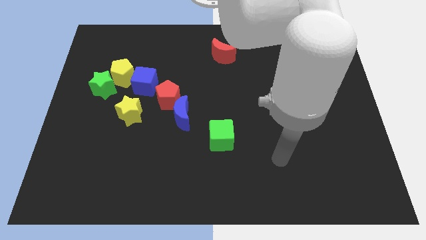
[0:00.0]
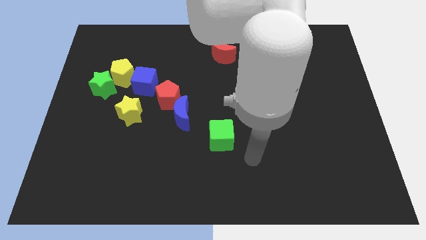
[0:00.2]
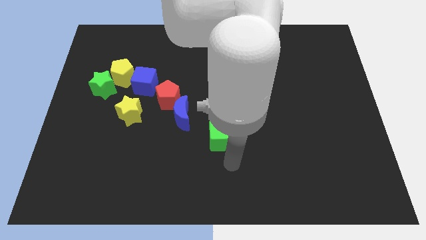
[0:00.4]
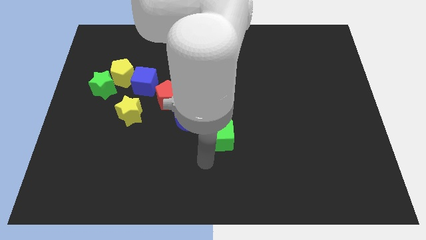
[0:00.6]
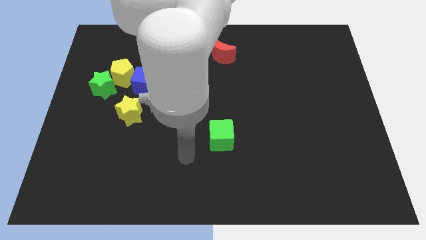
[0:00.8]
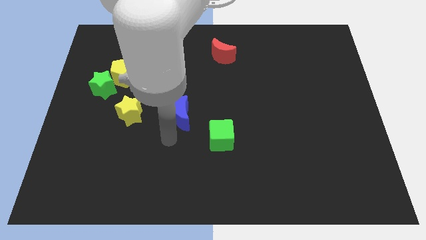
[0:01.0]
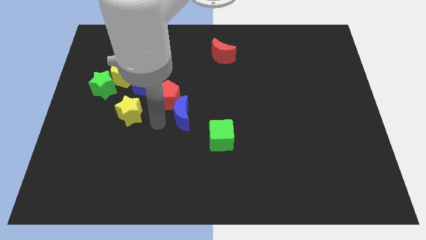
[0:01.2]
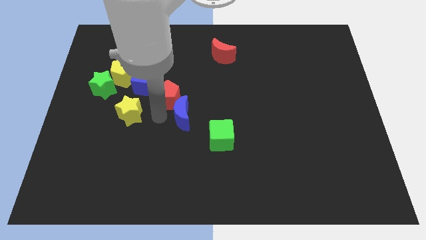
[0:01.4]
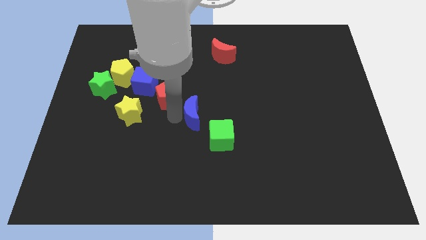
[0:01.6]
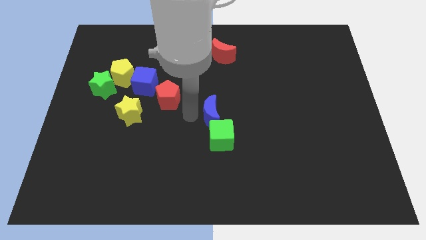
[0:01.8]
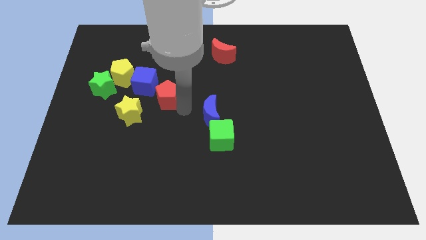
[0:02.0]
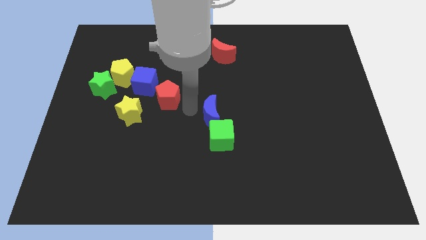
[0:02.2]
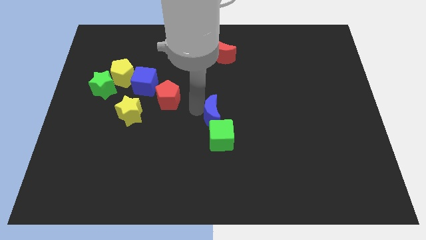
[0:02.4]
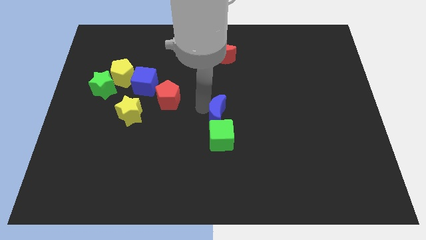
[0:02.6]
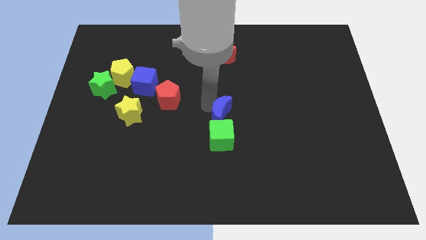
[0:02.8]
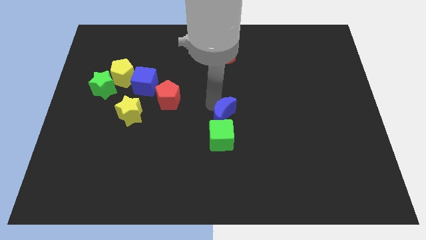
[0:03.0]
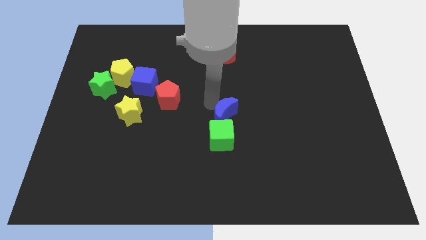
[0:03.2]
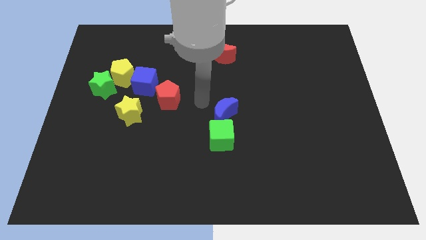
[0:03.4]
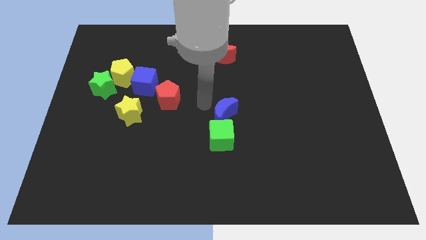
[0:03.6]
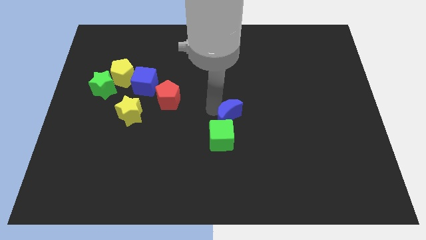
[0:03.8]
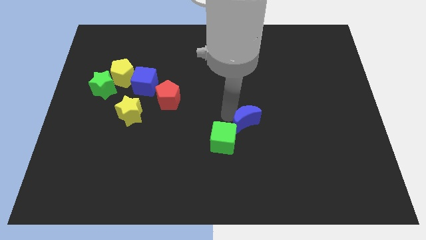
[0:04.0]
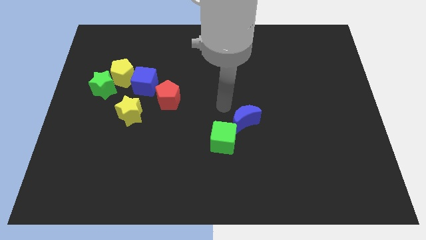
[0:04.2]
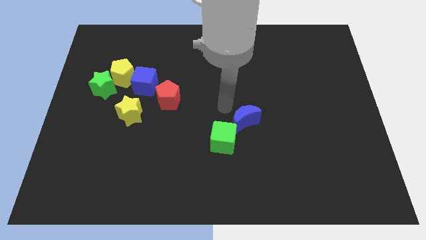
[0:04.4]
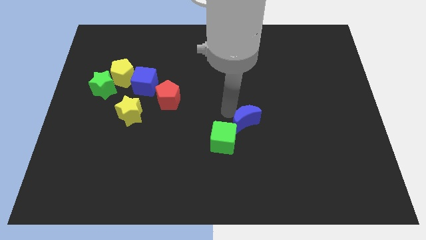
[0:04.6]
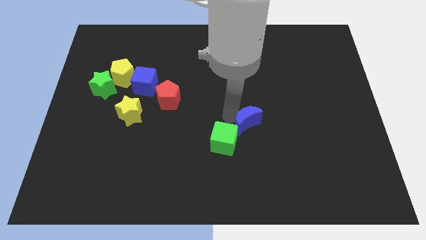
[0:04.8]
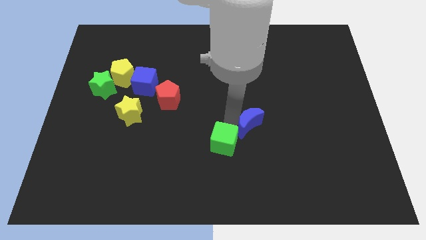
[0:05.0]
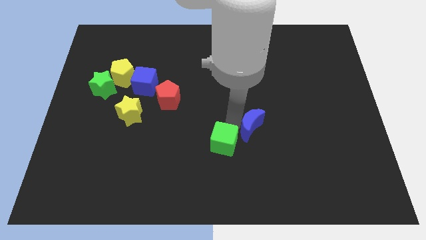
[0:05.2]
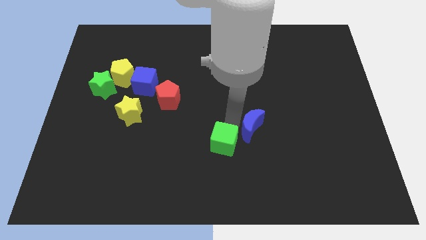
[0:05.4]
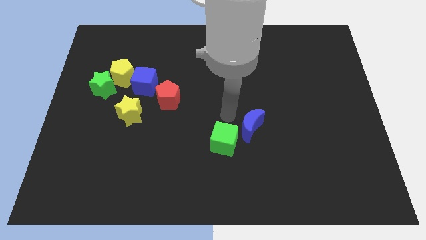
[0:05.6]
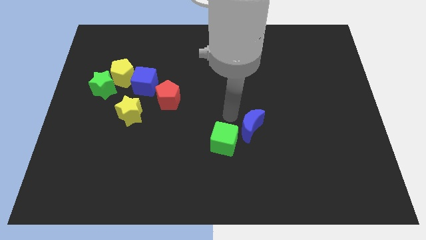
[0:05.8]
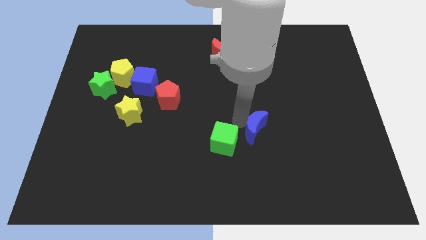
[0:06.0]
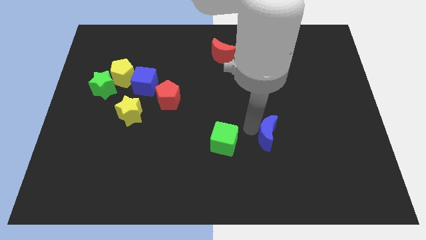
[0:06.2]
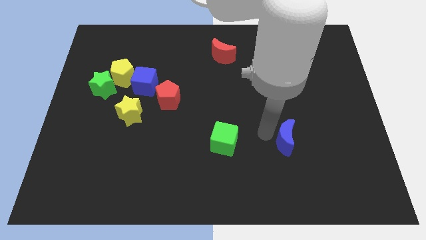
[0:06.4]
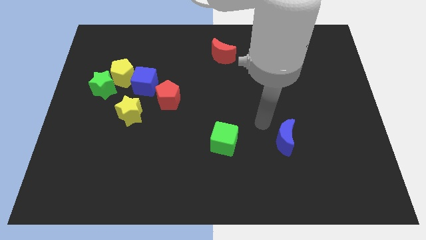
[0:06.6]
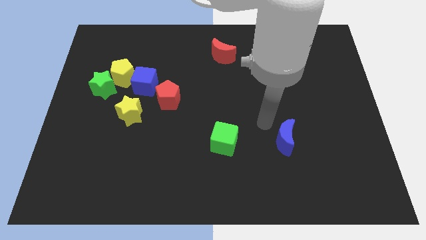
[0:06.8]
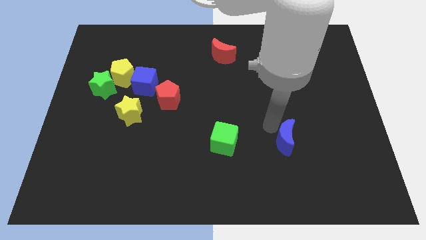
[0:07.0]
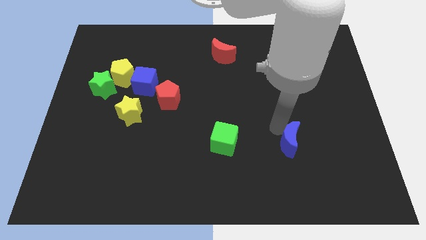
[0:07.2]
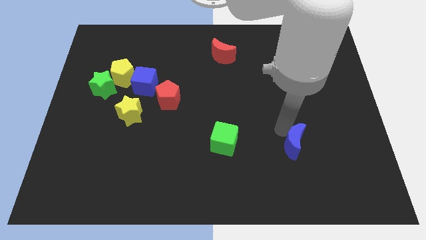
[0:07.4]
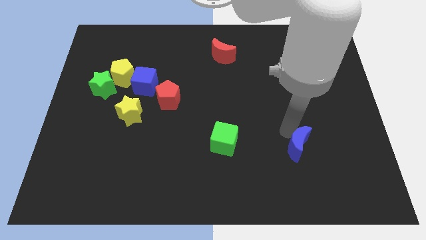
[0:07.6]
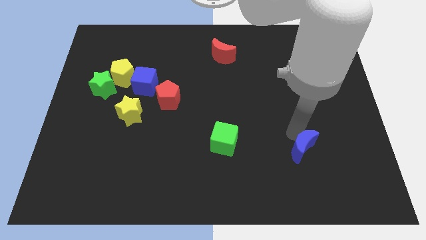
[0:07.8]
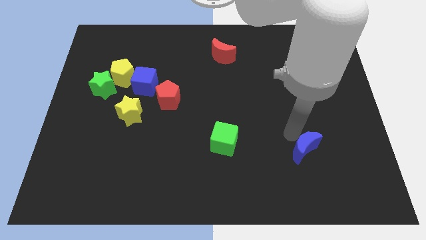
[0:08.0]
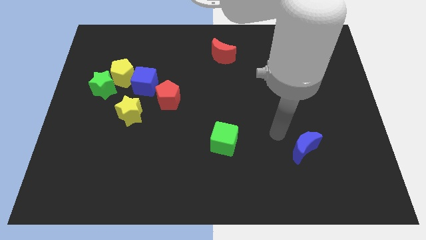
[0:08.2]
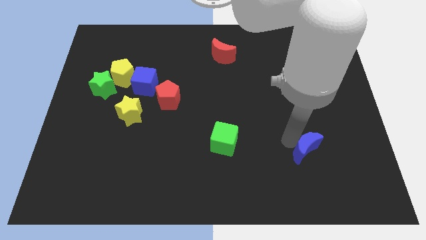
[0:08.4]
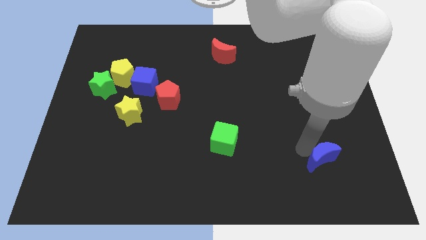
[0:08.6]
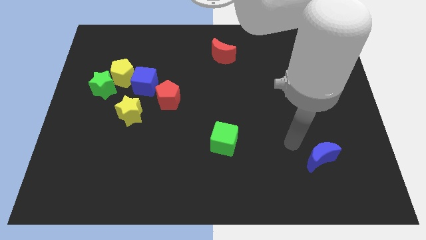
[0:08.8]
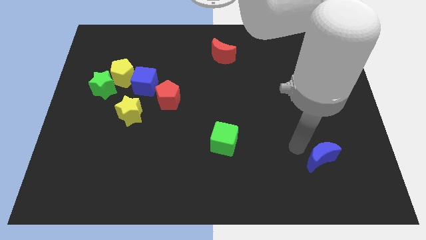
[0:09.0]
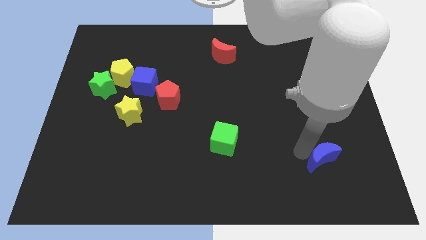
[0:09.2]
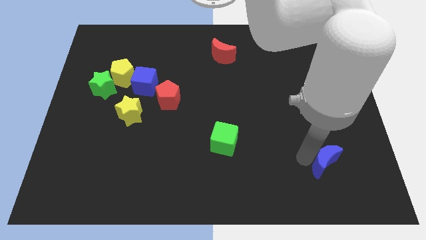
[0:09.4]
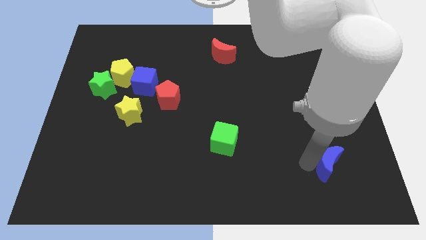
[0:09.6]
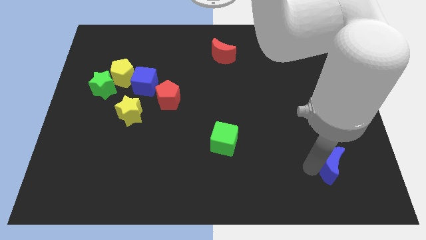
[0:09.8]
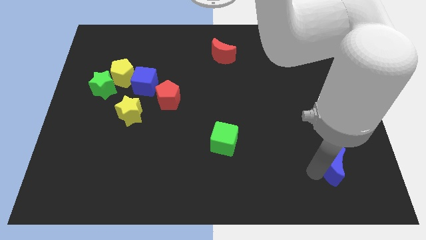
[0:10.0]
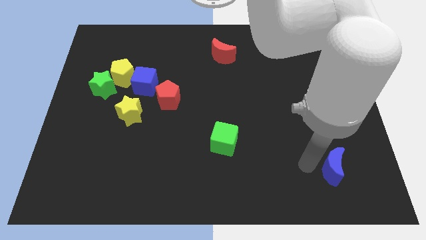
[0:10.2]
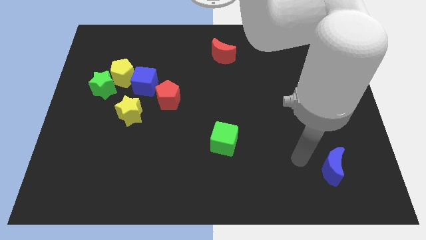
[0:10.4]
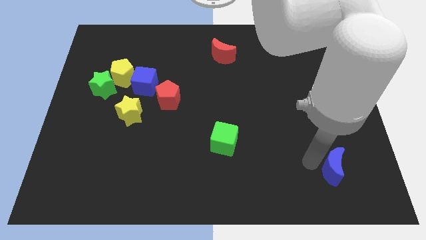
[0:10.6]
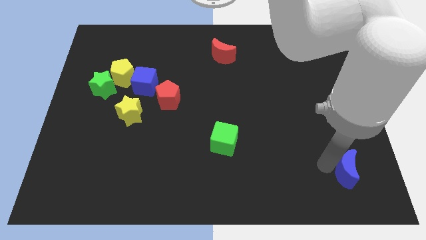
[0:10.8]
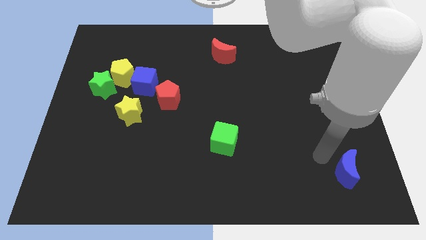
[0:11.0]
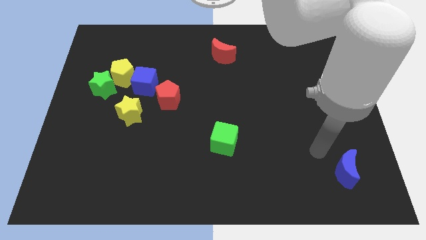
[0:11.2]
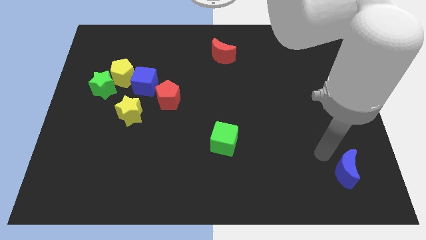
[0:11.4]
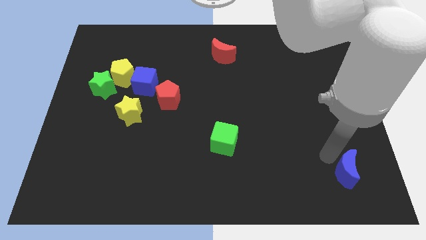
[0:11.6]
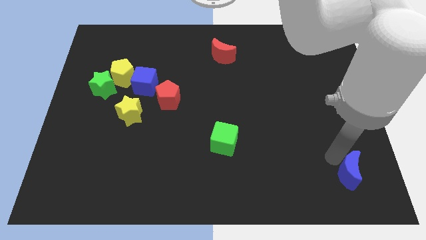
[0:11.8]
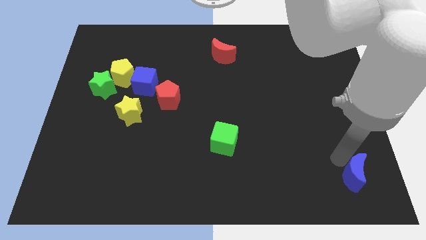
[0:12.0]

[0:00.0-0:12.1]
slide the blue moon to the bottom right corner
